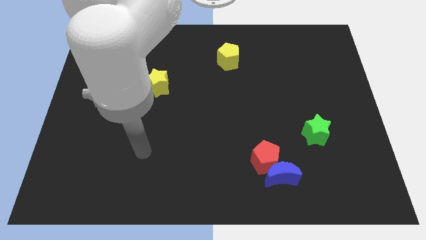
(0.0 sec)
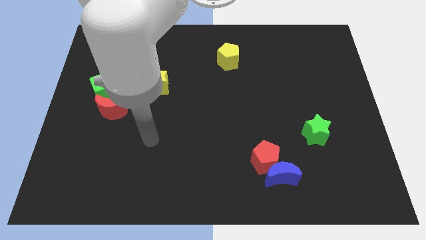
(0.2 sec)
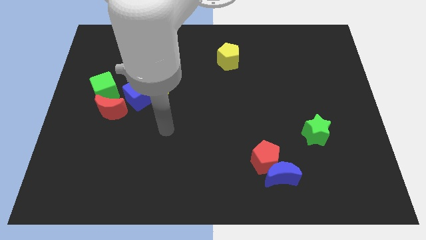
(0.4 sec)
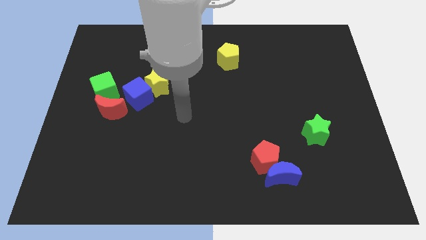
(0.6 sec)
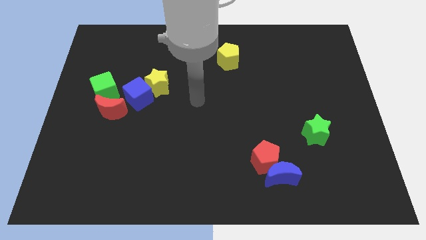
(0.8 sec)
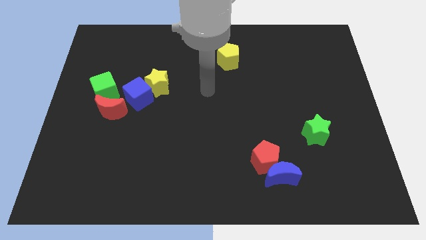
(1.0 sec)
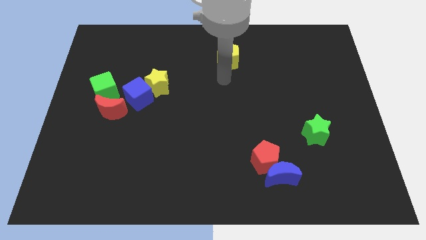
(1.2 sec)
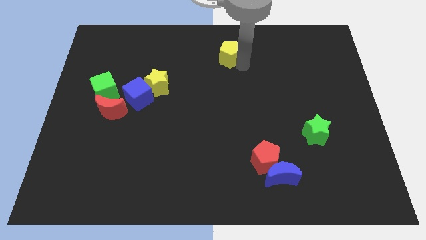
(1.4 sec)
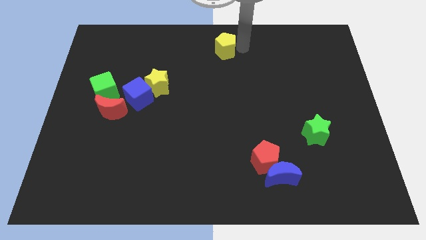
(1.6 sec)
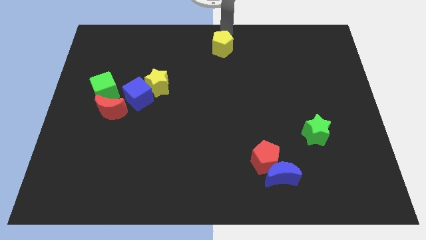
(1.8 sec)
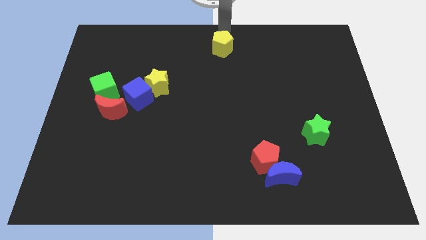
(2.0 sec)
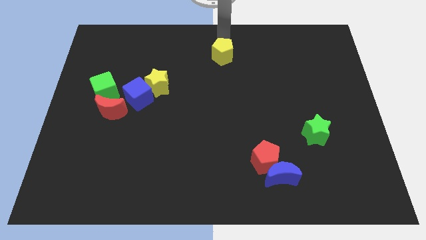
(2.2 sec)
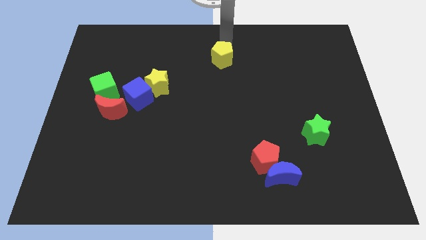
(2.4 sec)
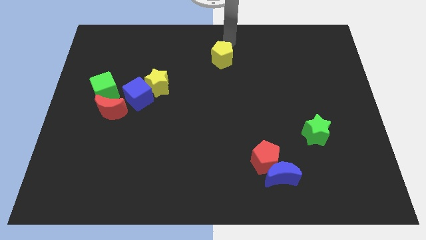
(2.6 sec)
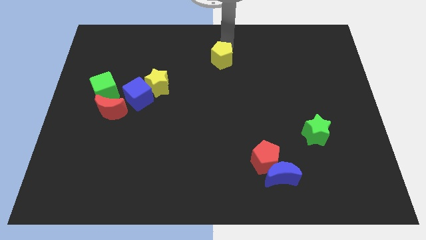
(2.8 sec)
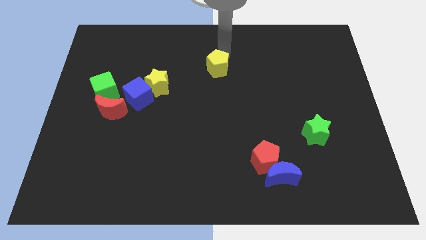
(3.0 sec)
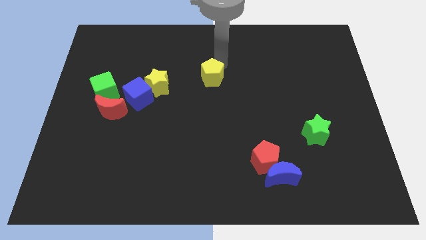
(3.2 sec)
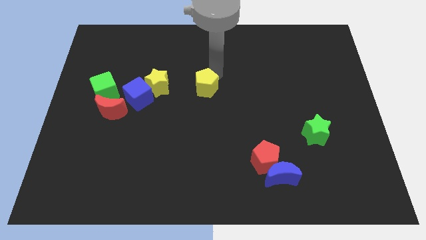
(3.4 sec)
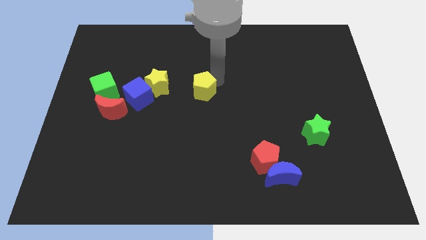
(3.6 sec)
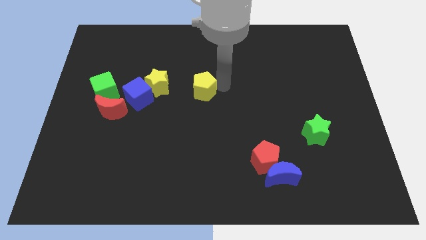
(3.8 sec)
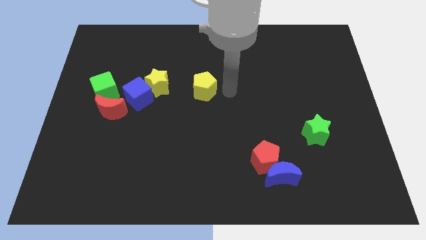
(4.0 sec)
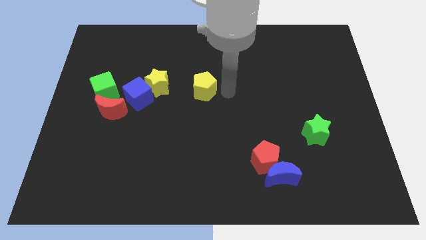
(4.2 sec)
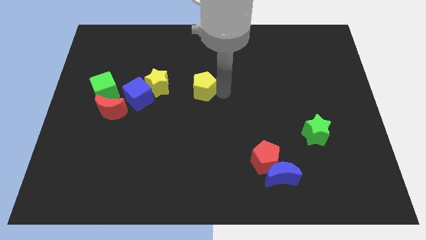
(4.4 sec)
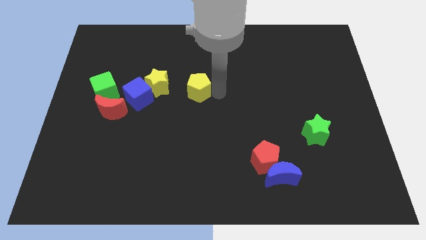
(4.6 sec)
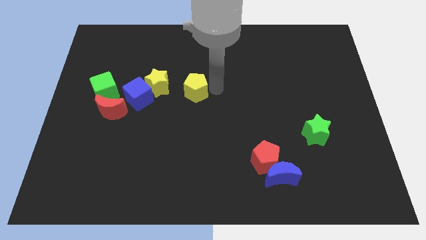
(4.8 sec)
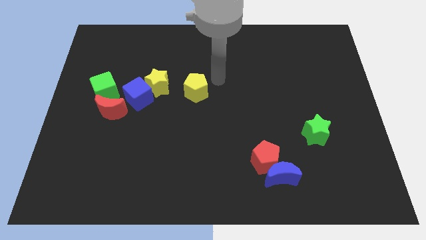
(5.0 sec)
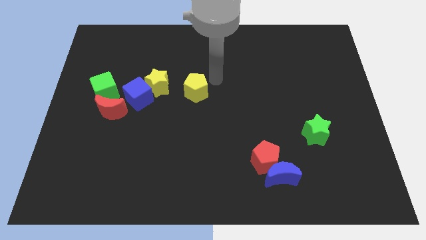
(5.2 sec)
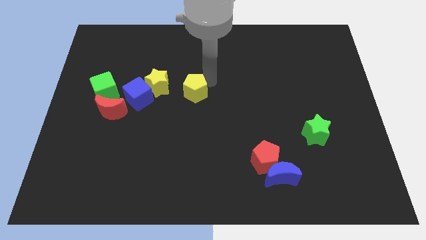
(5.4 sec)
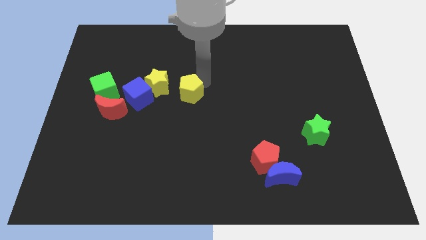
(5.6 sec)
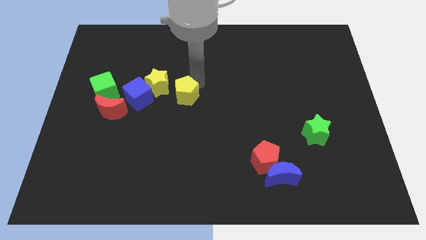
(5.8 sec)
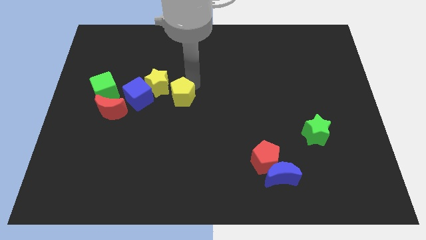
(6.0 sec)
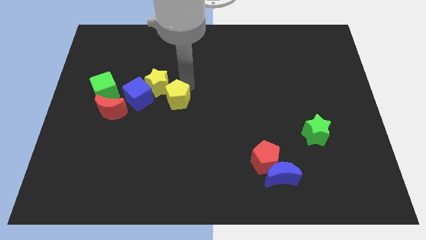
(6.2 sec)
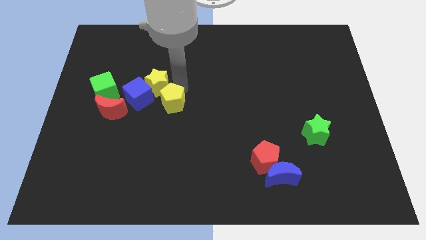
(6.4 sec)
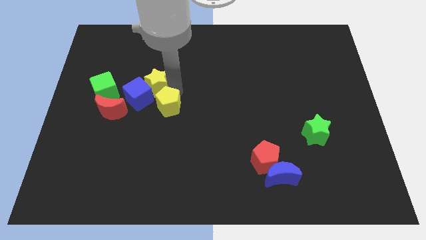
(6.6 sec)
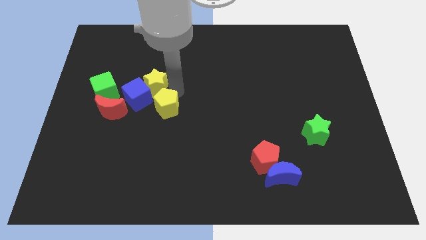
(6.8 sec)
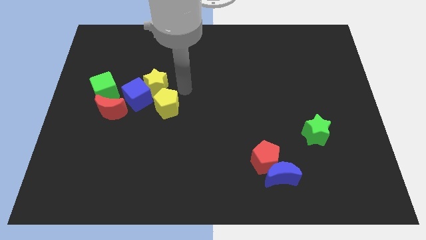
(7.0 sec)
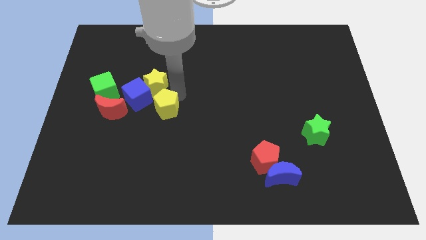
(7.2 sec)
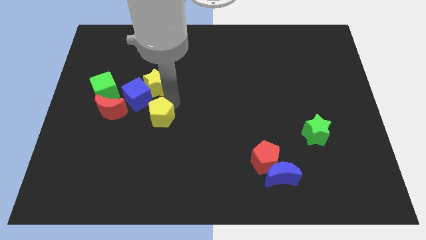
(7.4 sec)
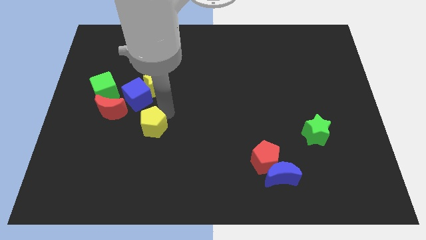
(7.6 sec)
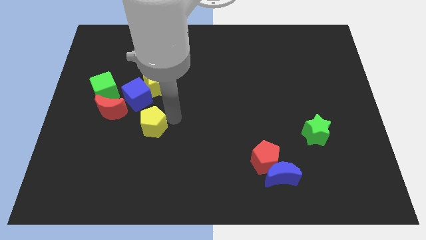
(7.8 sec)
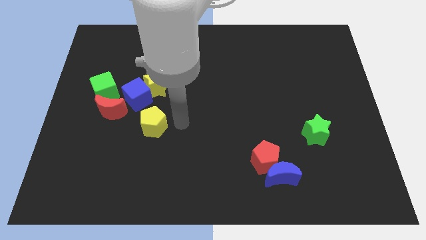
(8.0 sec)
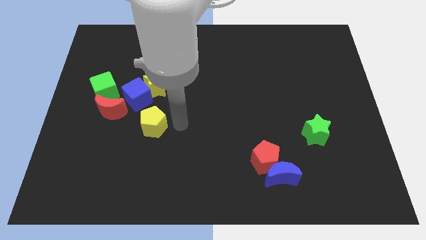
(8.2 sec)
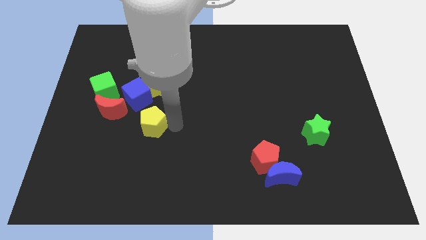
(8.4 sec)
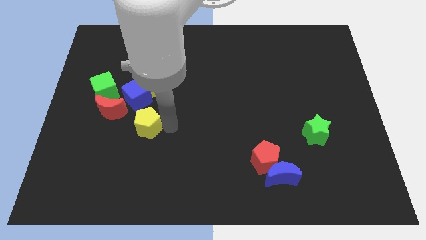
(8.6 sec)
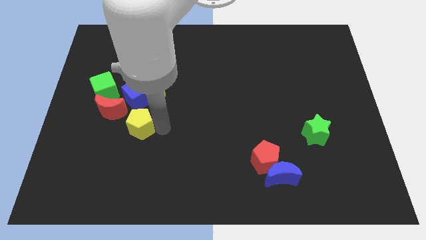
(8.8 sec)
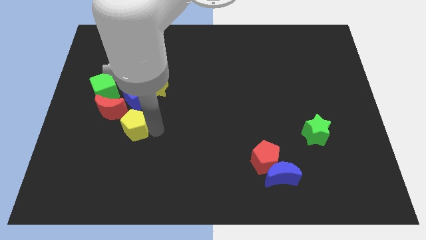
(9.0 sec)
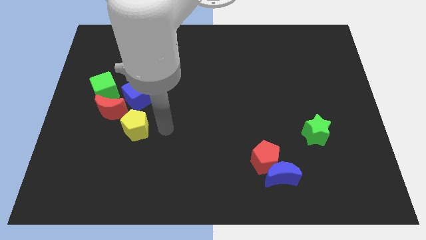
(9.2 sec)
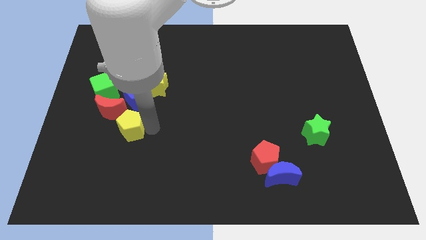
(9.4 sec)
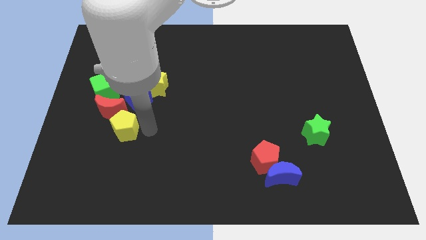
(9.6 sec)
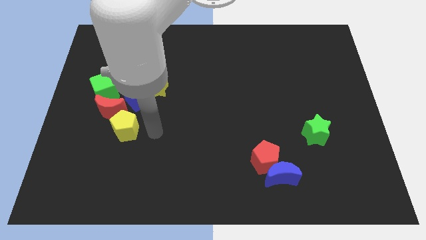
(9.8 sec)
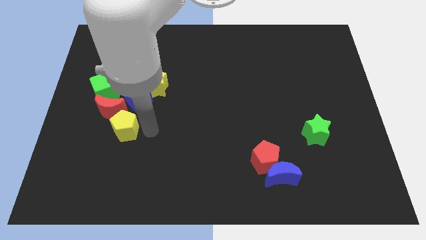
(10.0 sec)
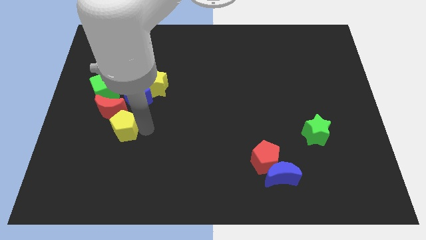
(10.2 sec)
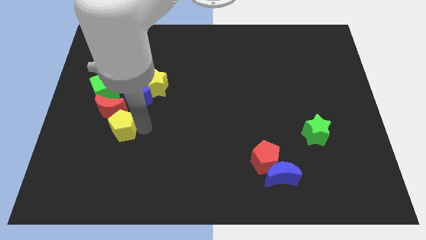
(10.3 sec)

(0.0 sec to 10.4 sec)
put the yellow pentagon to the bottom left side of the blue cube

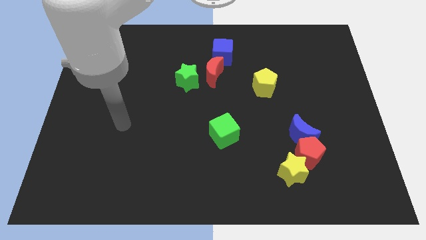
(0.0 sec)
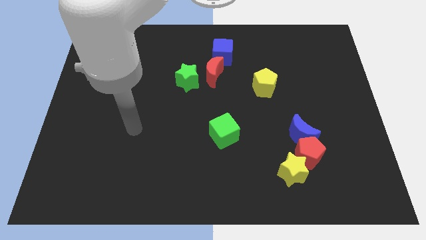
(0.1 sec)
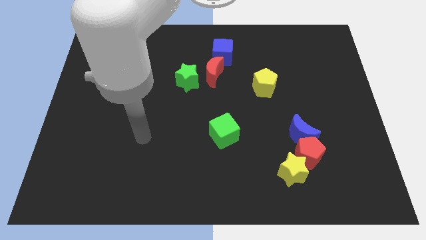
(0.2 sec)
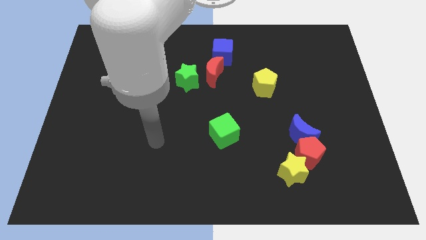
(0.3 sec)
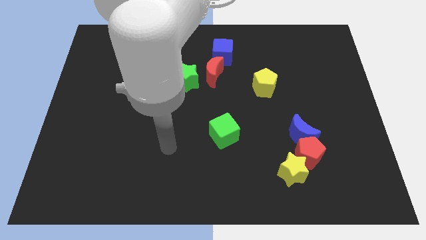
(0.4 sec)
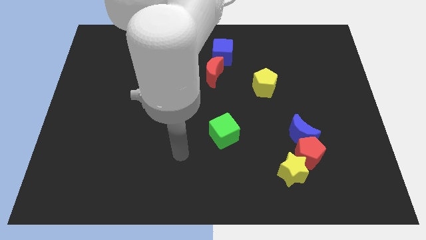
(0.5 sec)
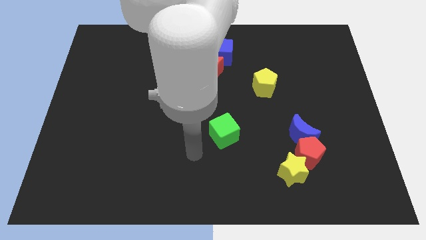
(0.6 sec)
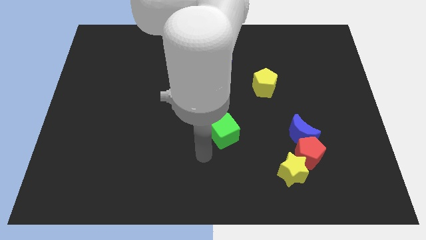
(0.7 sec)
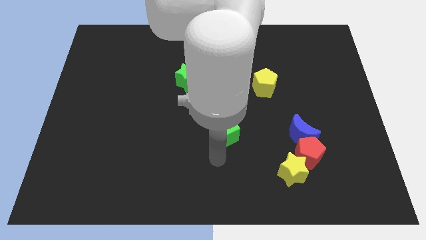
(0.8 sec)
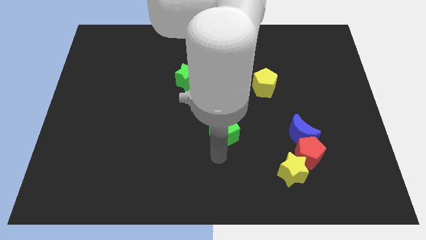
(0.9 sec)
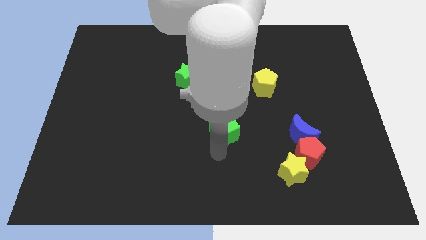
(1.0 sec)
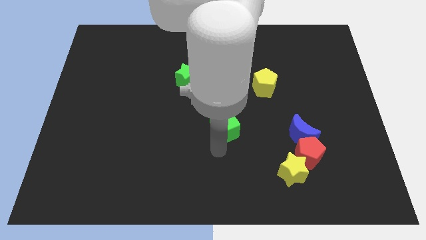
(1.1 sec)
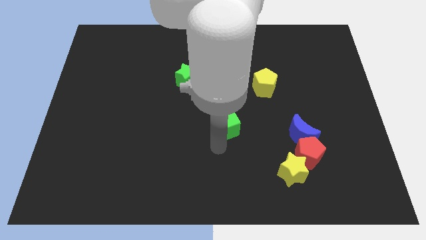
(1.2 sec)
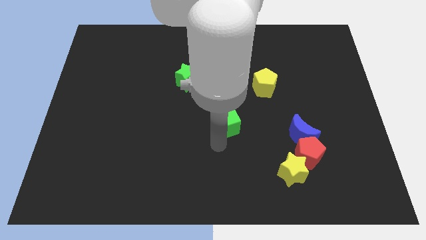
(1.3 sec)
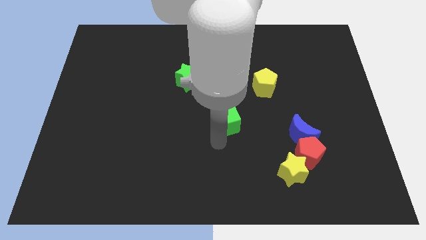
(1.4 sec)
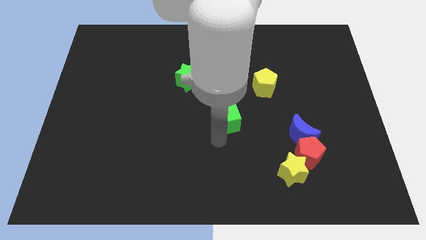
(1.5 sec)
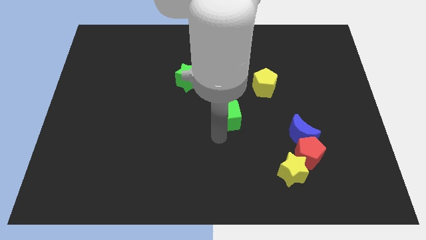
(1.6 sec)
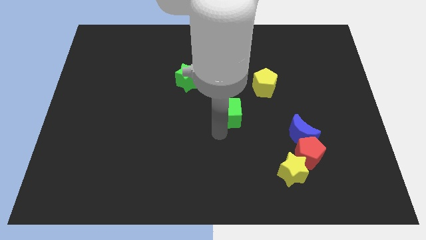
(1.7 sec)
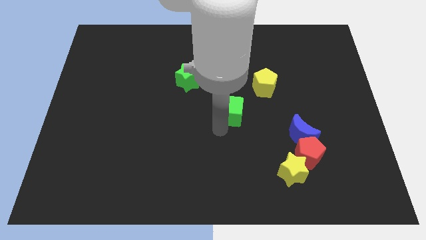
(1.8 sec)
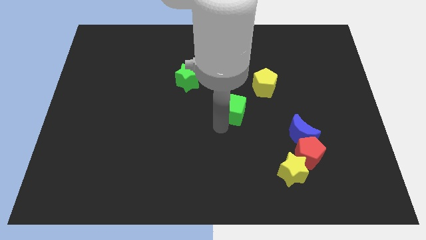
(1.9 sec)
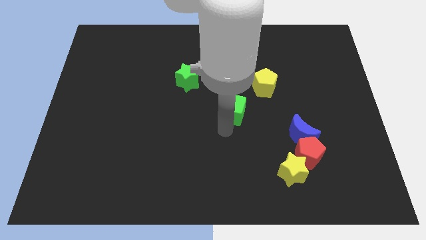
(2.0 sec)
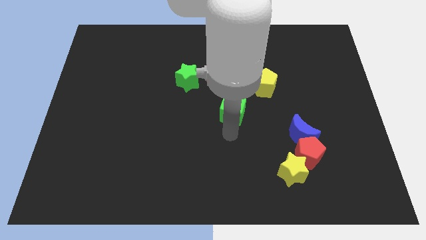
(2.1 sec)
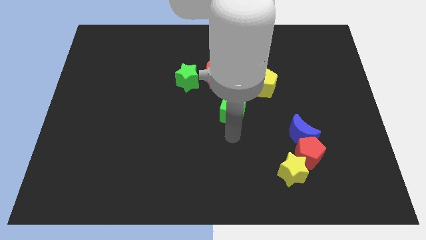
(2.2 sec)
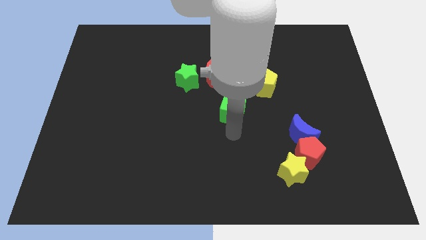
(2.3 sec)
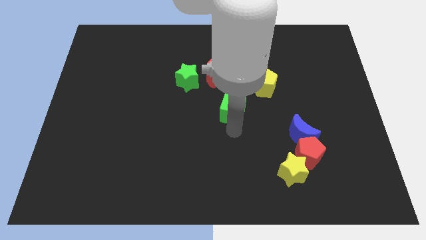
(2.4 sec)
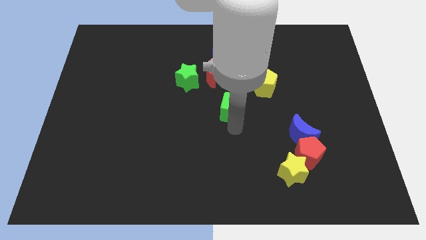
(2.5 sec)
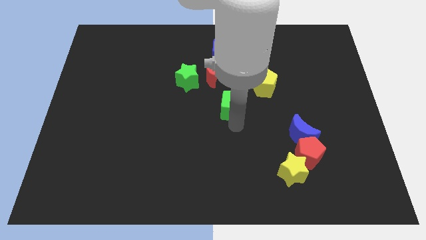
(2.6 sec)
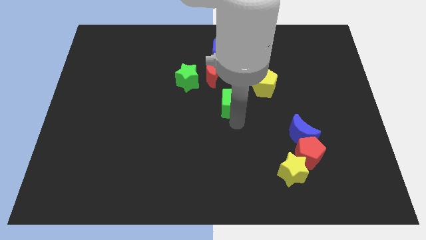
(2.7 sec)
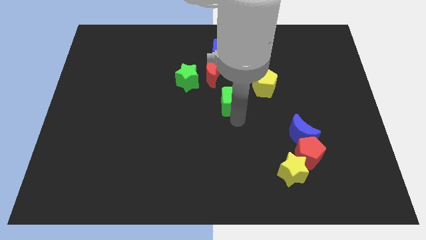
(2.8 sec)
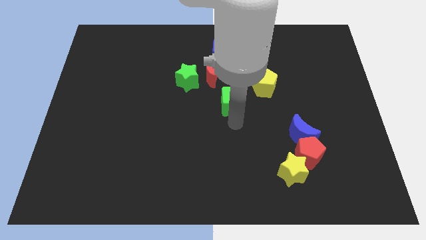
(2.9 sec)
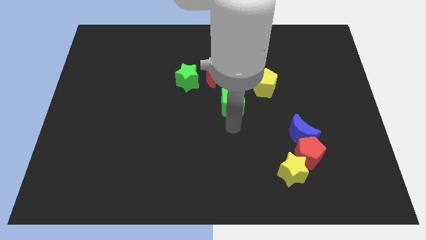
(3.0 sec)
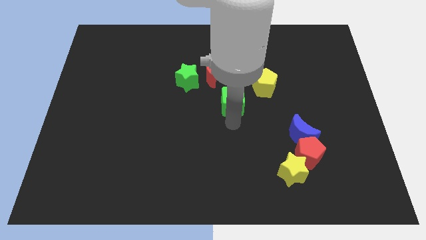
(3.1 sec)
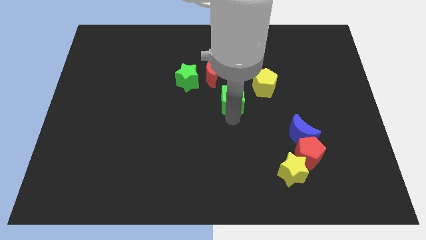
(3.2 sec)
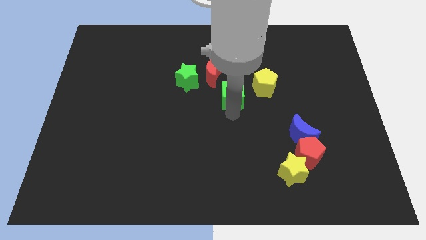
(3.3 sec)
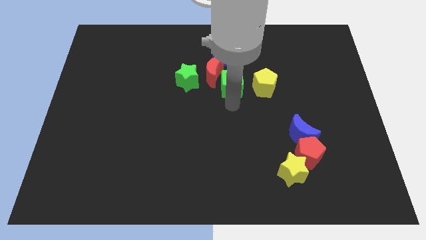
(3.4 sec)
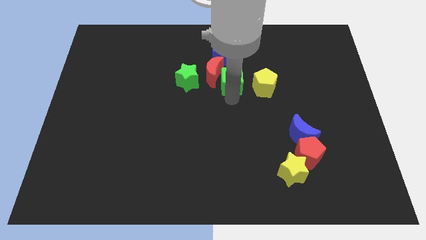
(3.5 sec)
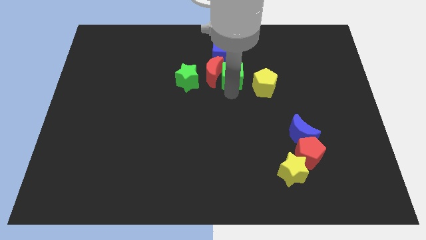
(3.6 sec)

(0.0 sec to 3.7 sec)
push the green cube to the top right of the red moon
